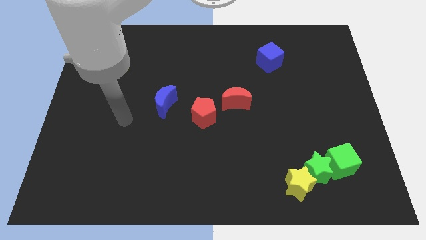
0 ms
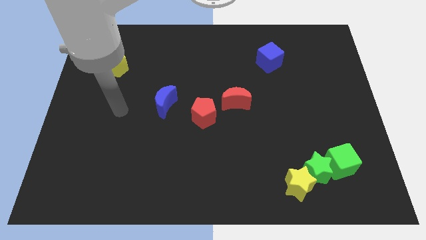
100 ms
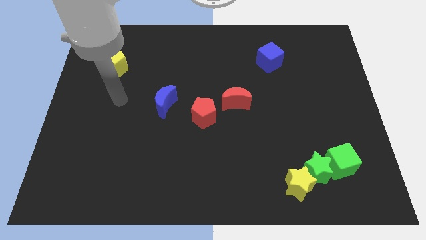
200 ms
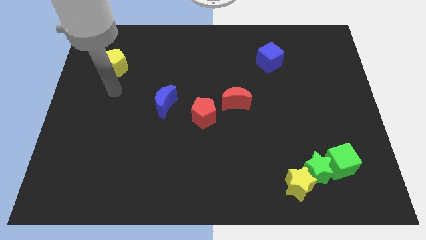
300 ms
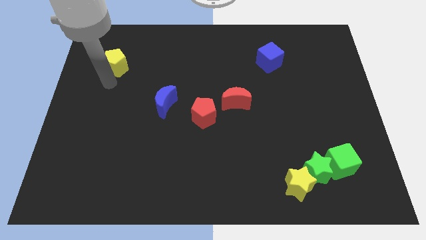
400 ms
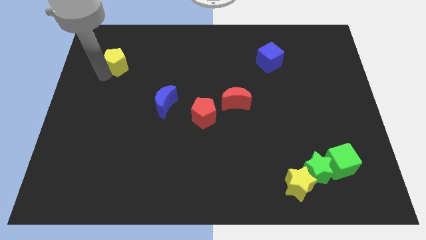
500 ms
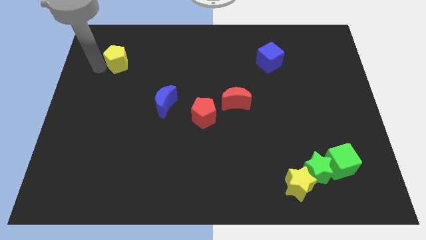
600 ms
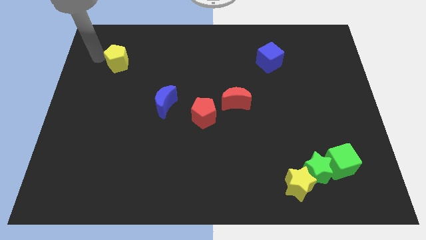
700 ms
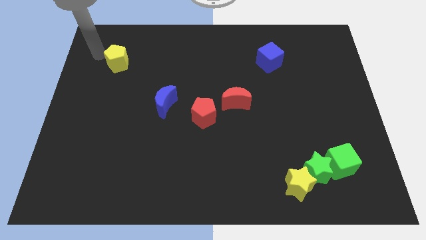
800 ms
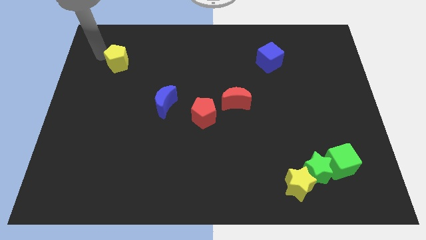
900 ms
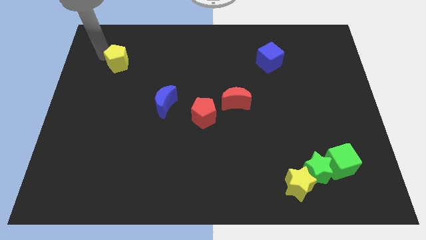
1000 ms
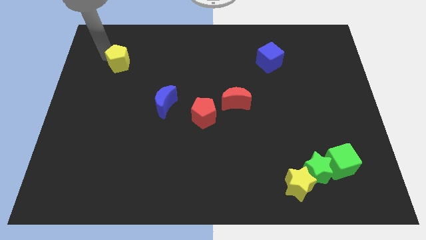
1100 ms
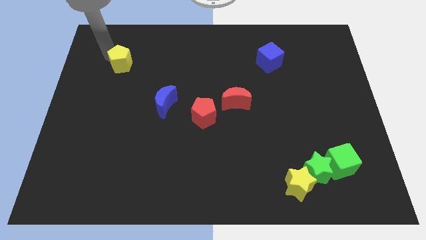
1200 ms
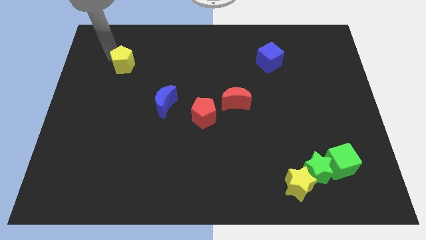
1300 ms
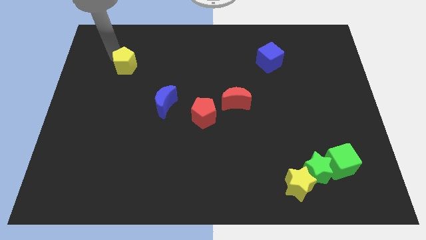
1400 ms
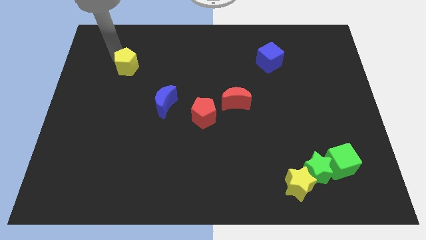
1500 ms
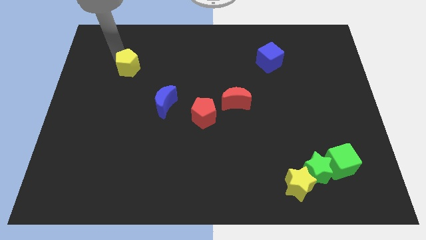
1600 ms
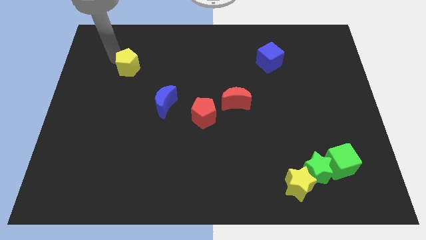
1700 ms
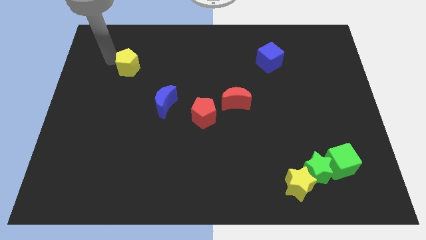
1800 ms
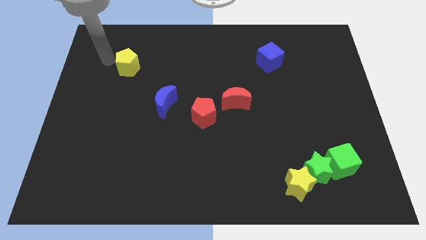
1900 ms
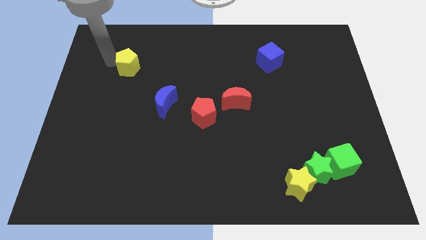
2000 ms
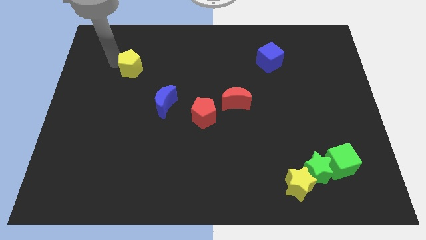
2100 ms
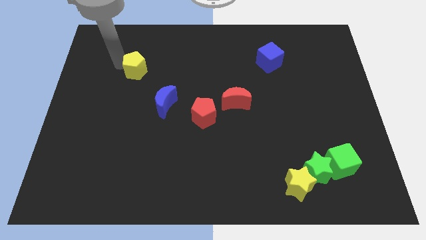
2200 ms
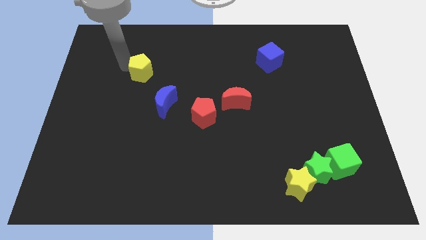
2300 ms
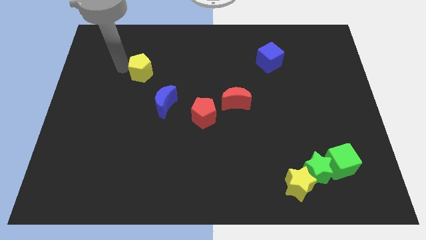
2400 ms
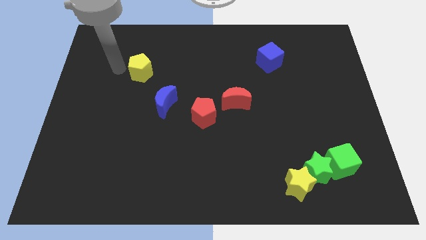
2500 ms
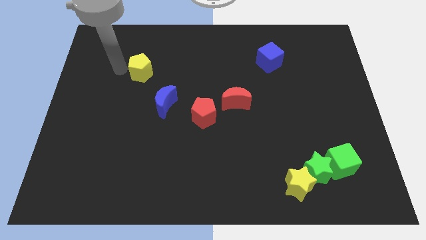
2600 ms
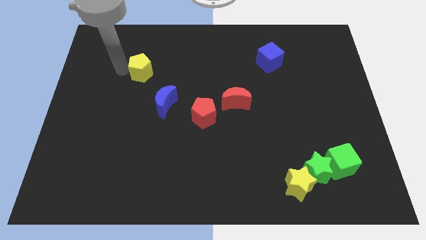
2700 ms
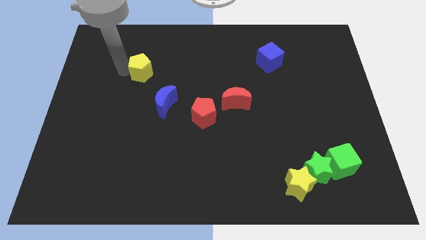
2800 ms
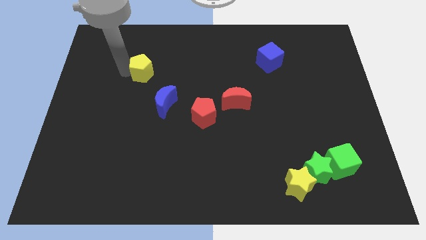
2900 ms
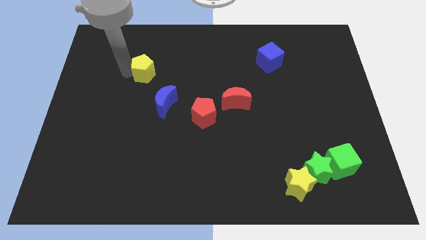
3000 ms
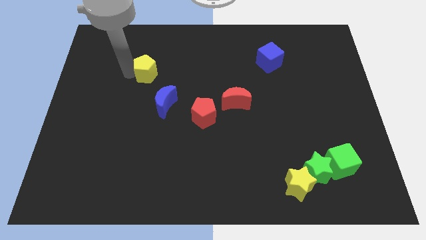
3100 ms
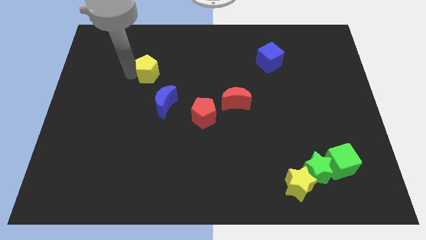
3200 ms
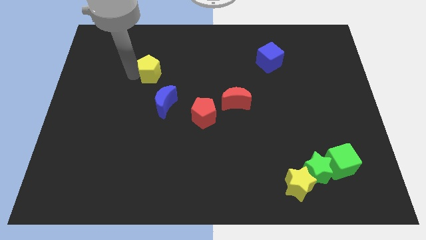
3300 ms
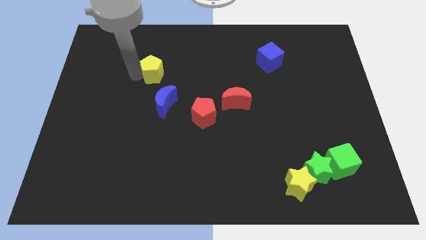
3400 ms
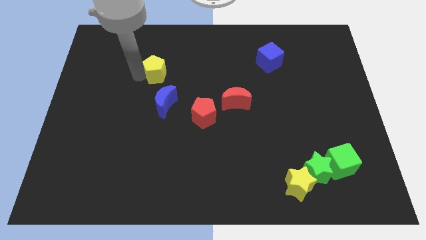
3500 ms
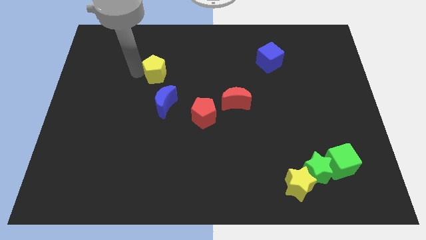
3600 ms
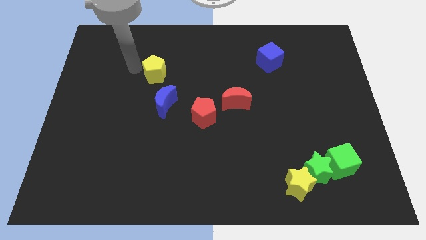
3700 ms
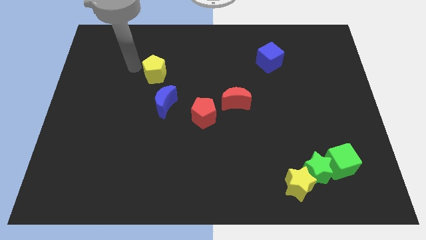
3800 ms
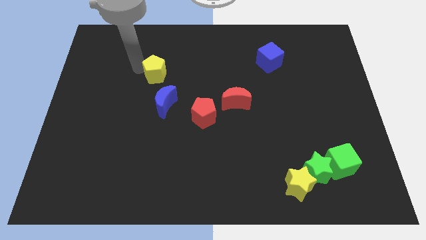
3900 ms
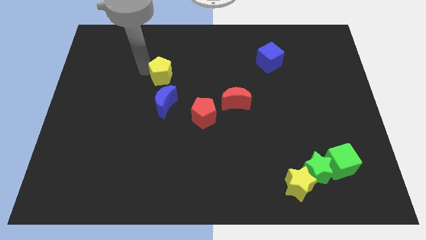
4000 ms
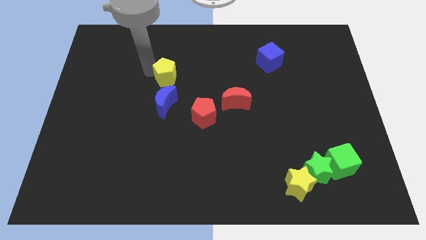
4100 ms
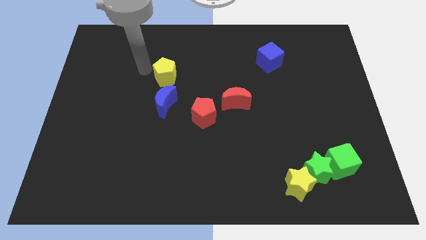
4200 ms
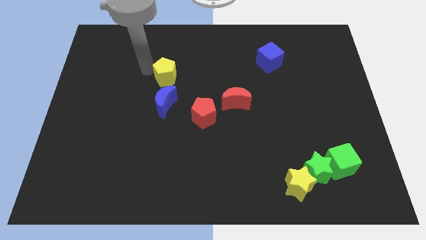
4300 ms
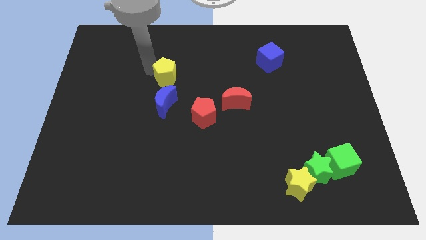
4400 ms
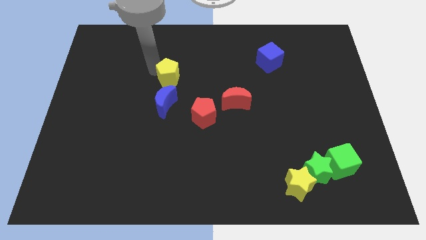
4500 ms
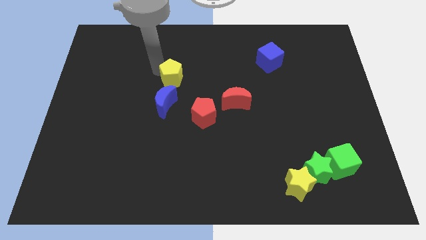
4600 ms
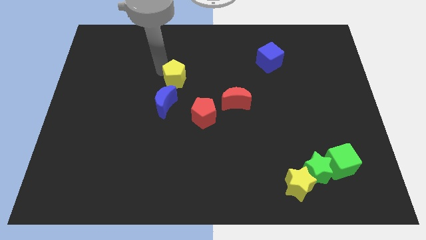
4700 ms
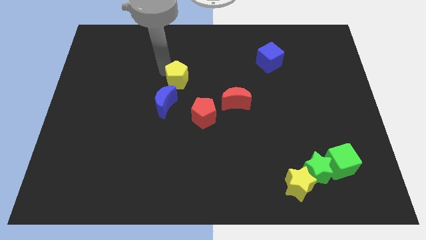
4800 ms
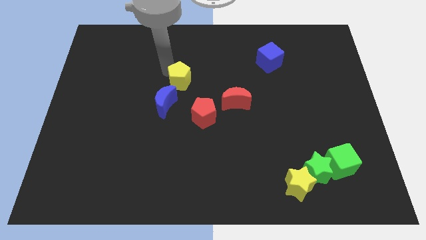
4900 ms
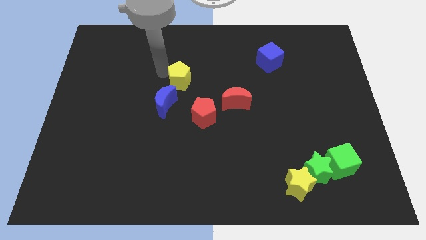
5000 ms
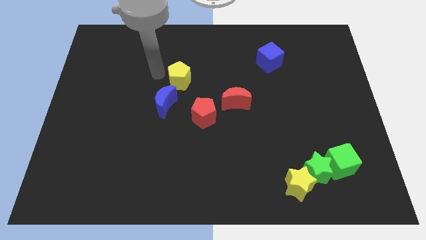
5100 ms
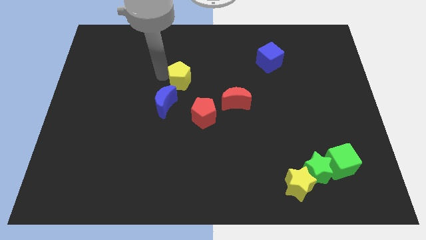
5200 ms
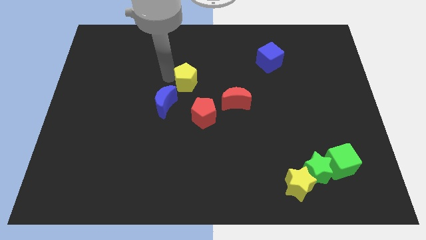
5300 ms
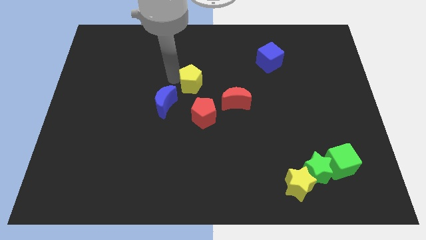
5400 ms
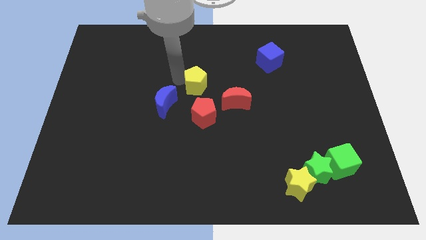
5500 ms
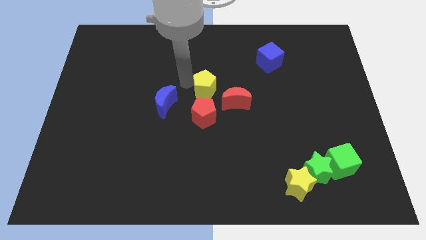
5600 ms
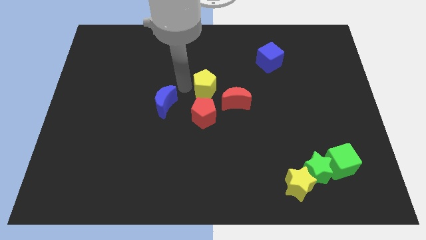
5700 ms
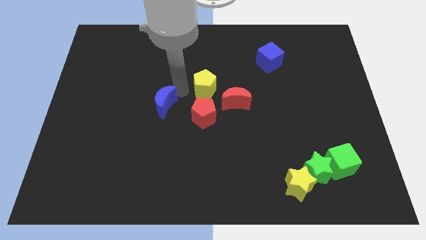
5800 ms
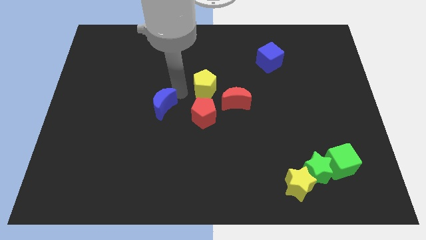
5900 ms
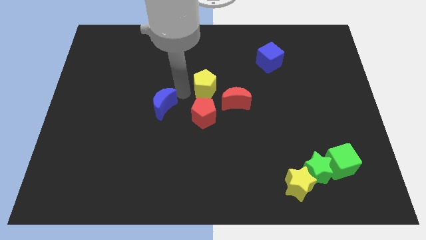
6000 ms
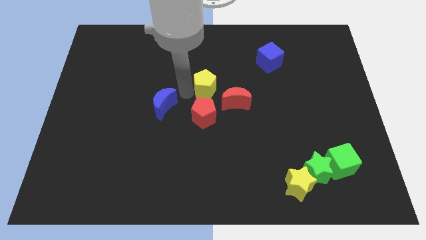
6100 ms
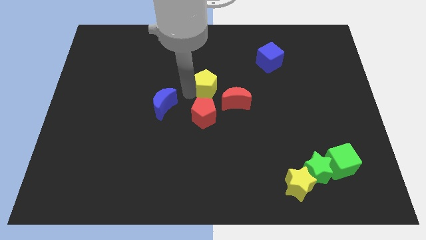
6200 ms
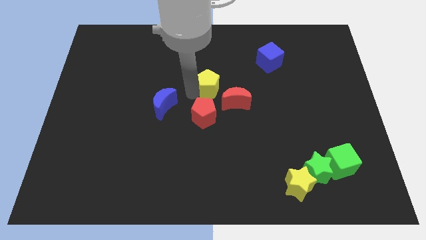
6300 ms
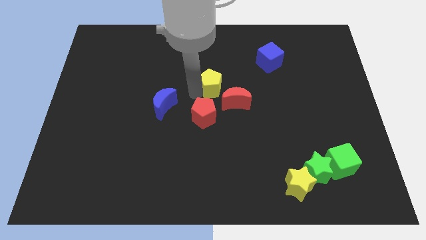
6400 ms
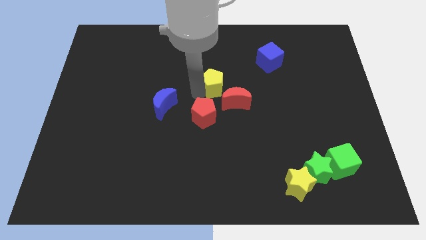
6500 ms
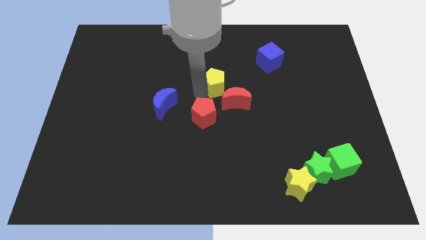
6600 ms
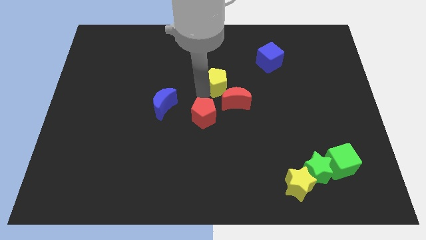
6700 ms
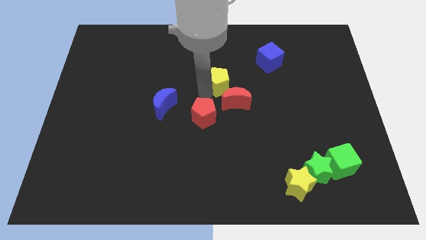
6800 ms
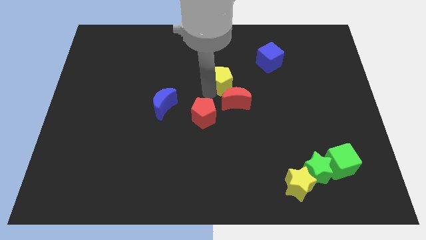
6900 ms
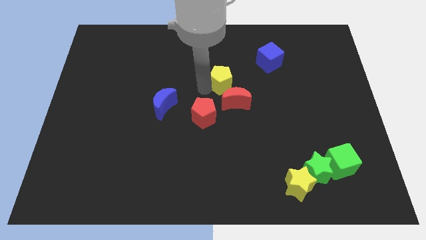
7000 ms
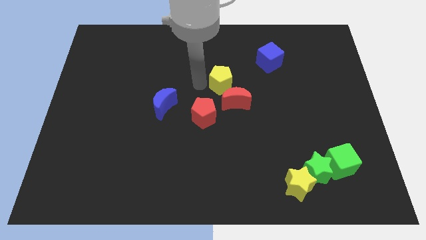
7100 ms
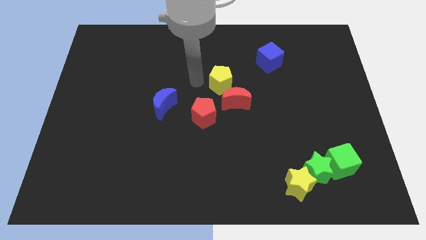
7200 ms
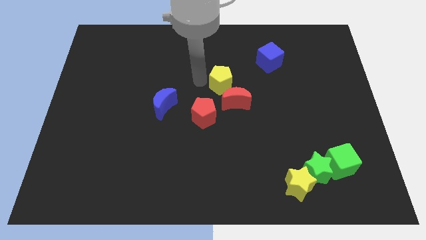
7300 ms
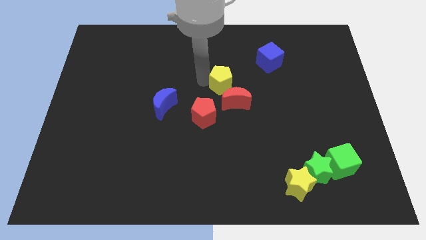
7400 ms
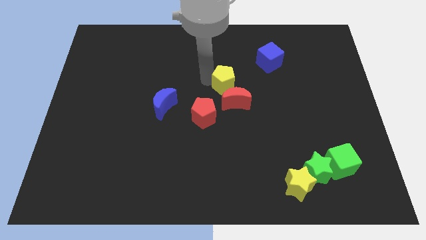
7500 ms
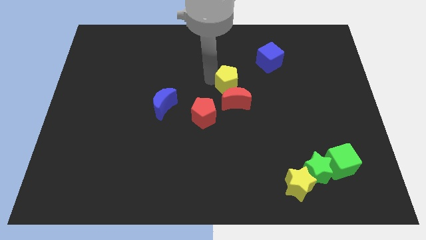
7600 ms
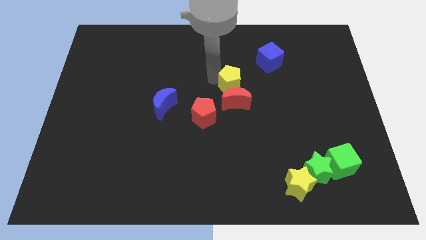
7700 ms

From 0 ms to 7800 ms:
slide the yellow pentagon diagonally up and to the right of the red moon

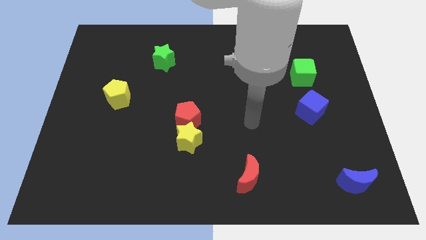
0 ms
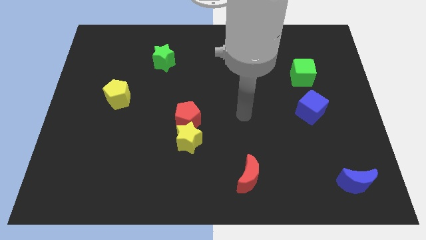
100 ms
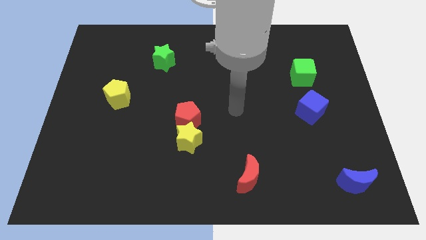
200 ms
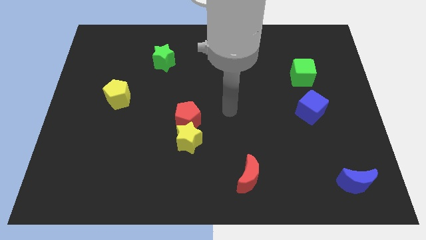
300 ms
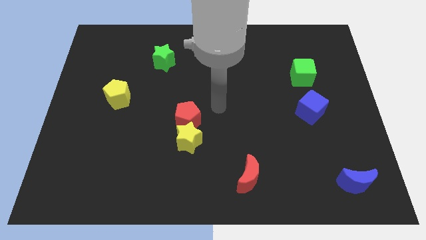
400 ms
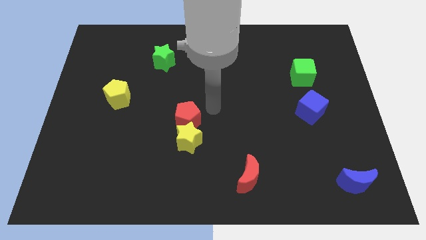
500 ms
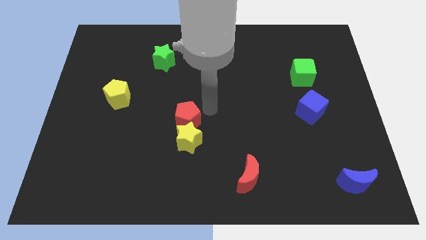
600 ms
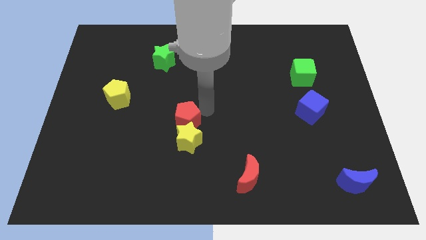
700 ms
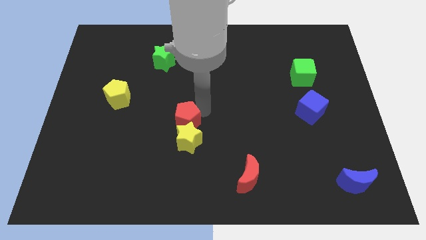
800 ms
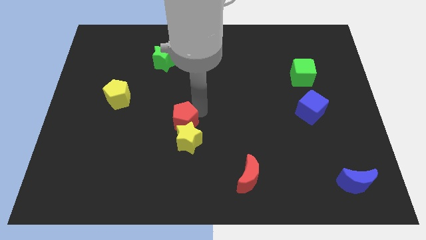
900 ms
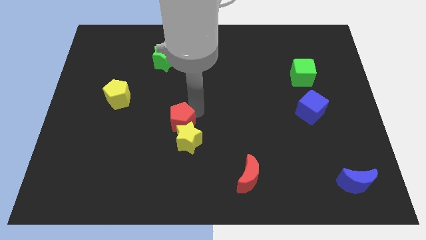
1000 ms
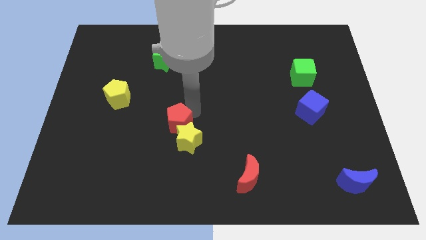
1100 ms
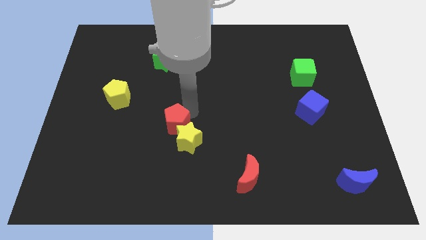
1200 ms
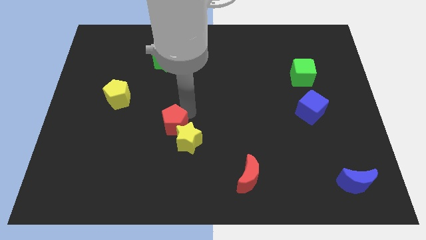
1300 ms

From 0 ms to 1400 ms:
move the red pentagon left of the yellow star
